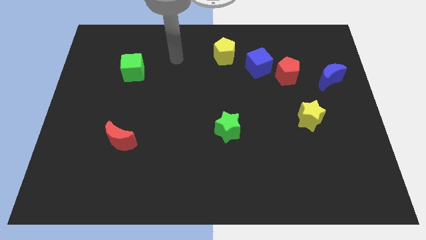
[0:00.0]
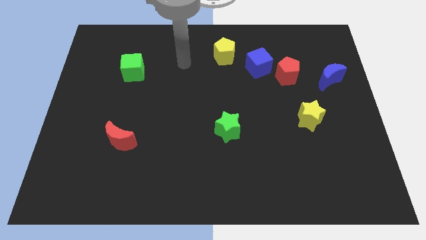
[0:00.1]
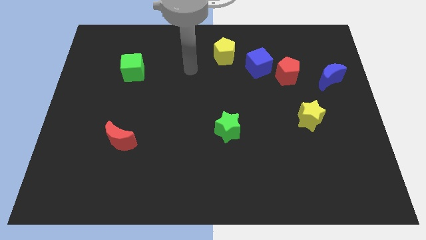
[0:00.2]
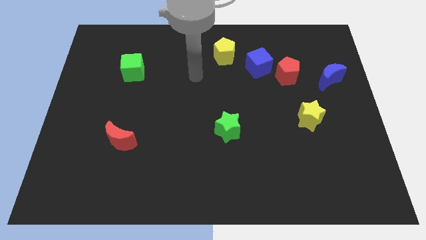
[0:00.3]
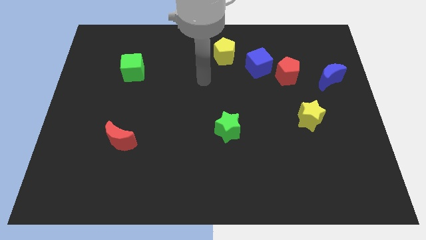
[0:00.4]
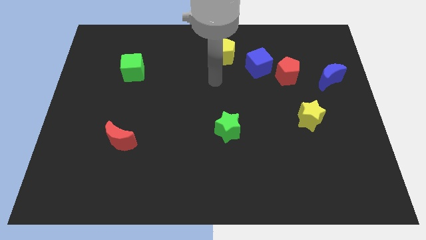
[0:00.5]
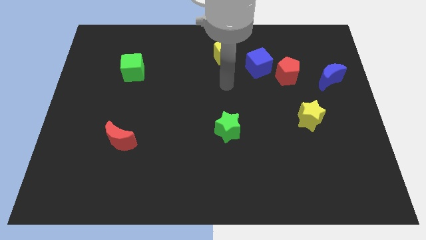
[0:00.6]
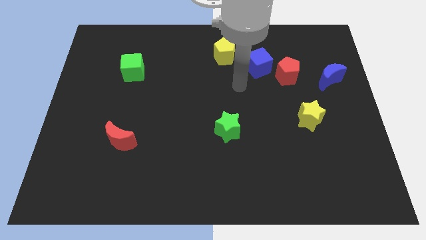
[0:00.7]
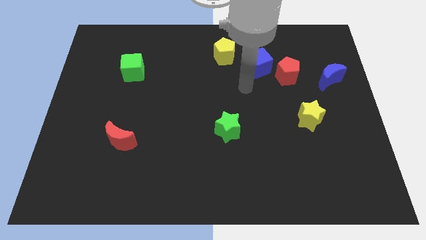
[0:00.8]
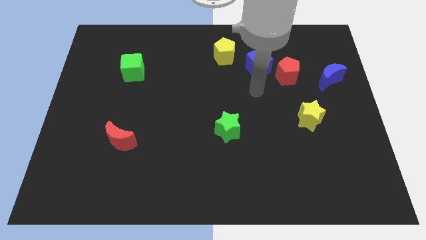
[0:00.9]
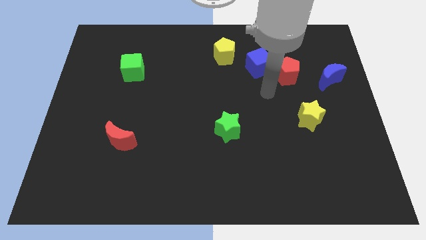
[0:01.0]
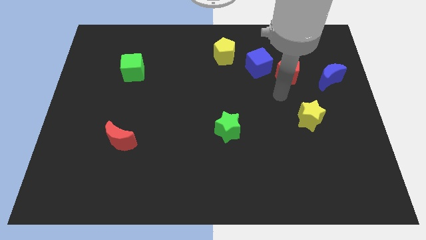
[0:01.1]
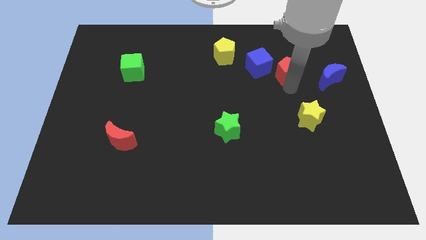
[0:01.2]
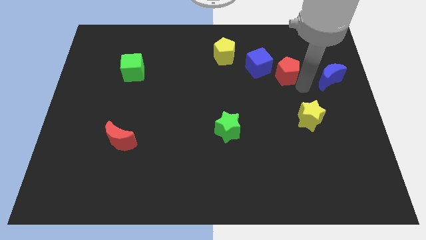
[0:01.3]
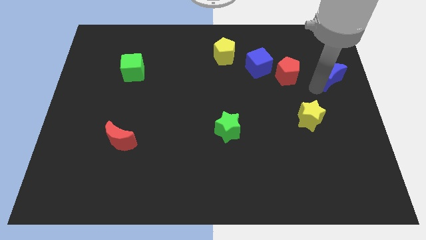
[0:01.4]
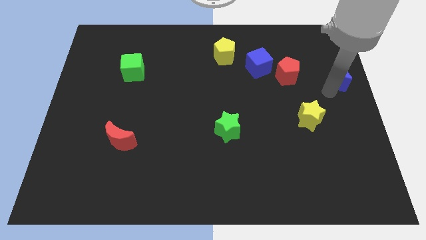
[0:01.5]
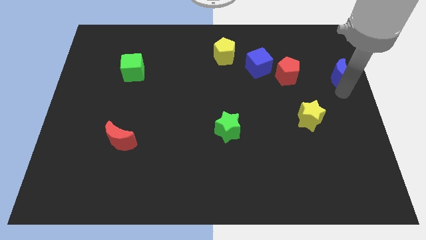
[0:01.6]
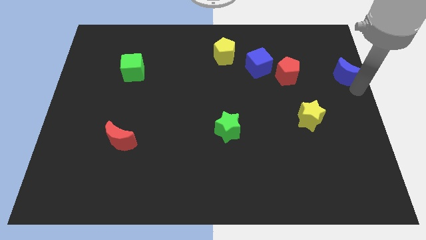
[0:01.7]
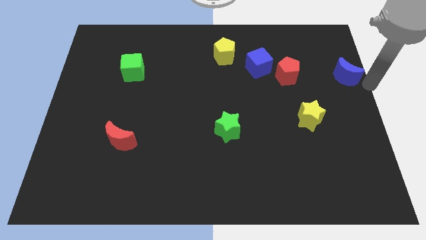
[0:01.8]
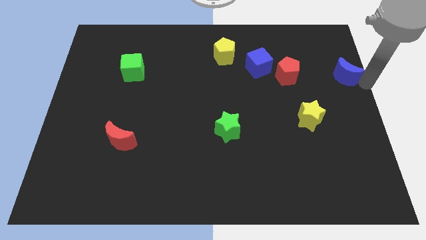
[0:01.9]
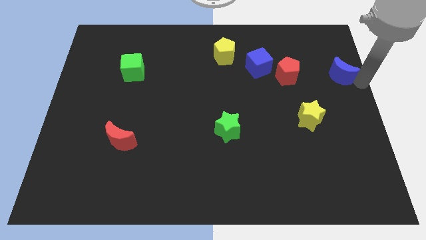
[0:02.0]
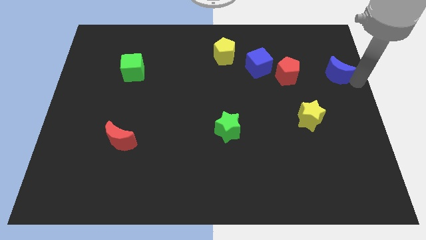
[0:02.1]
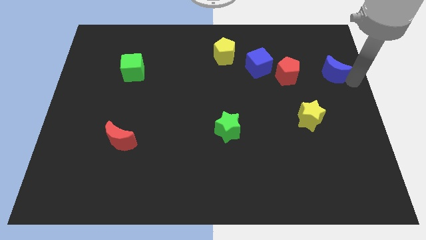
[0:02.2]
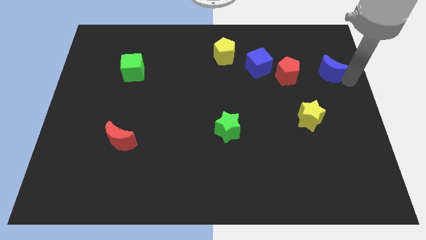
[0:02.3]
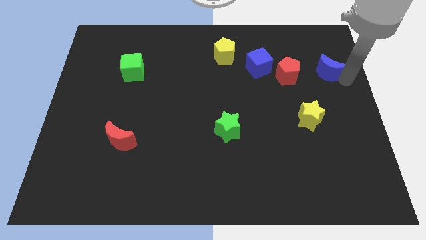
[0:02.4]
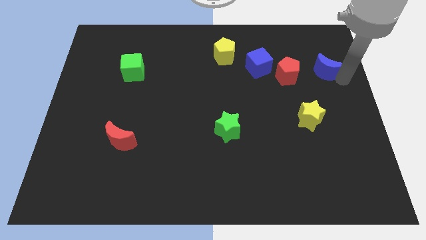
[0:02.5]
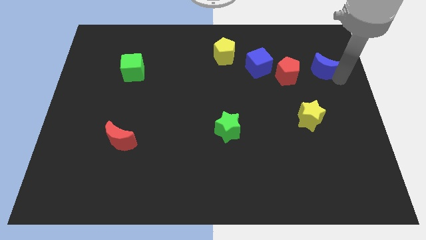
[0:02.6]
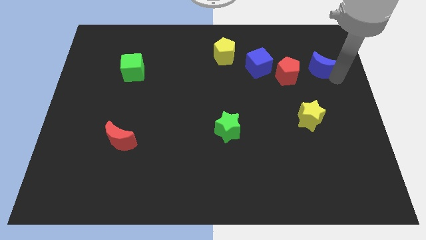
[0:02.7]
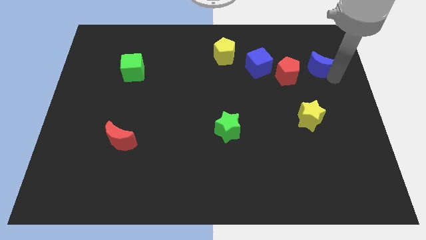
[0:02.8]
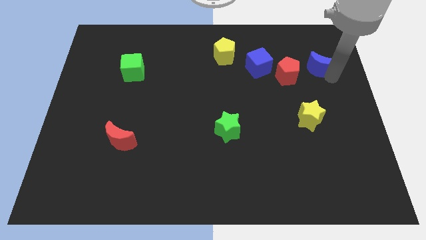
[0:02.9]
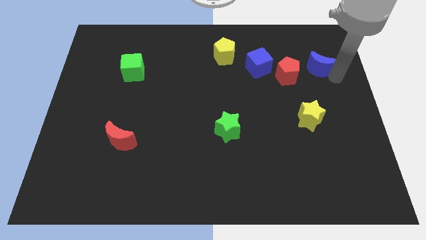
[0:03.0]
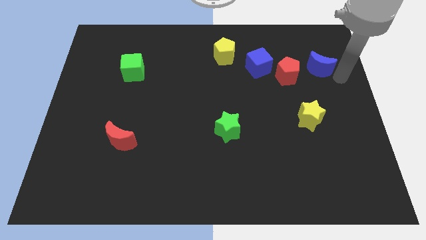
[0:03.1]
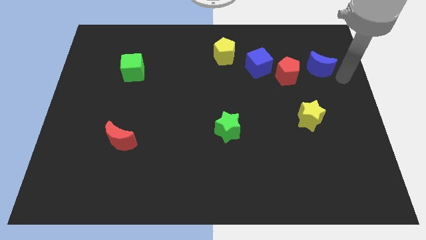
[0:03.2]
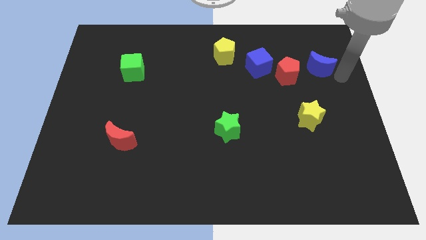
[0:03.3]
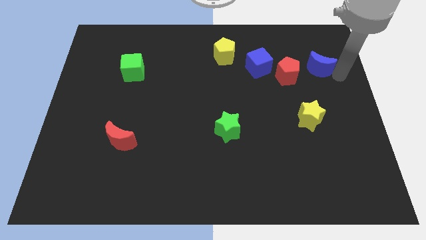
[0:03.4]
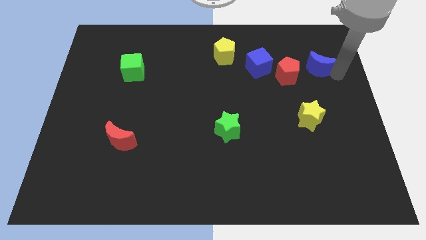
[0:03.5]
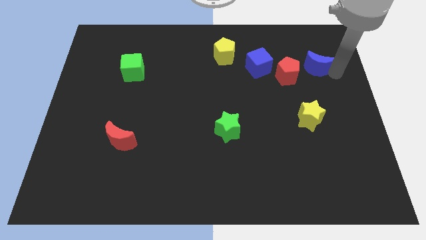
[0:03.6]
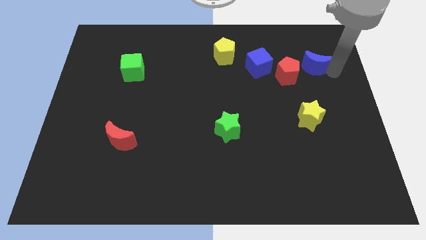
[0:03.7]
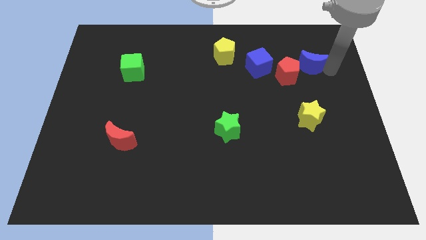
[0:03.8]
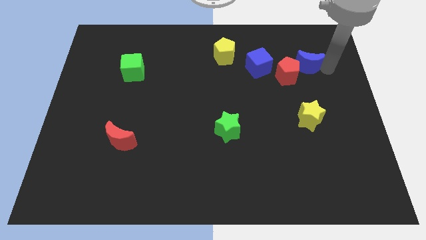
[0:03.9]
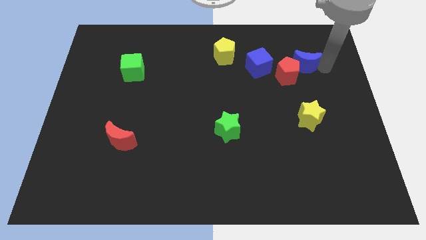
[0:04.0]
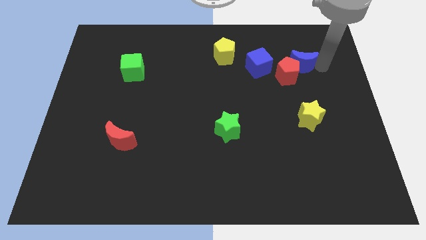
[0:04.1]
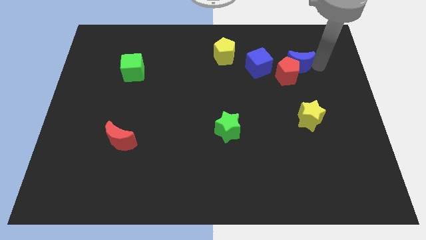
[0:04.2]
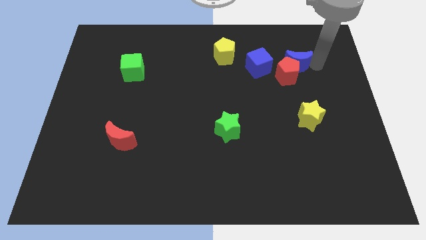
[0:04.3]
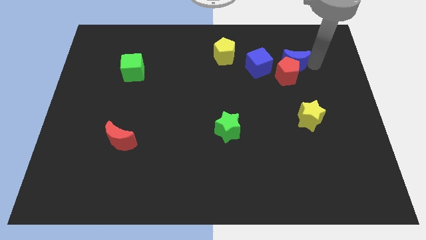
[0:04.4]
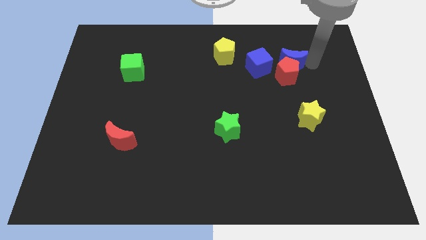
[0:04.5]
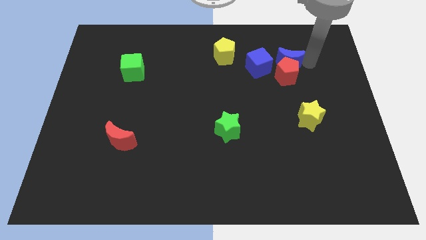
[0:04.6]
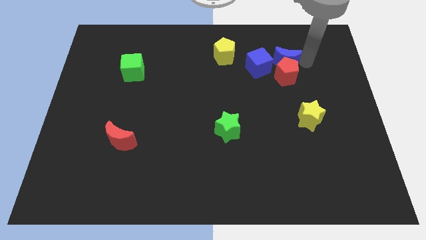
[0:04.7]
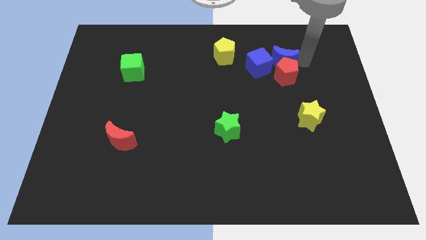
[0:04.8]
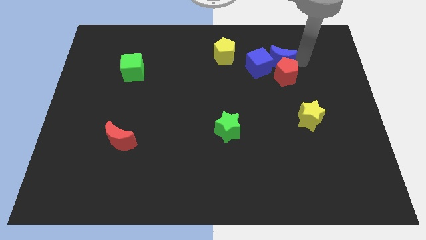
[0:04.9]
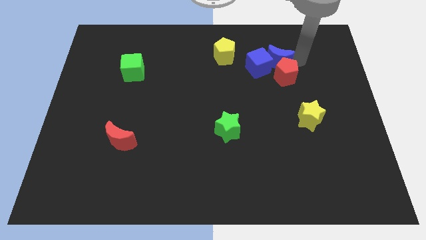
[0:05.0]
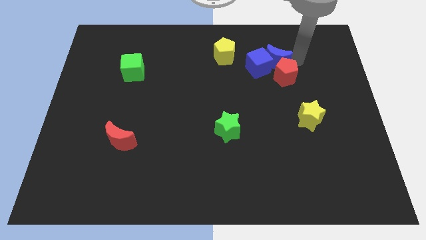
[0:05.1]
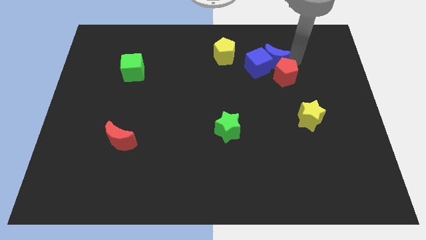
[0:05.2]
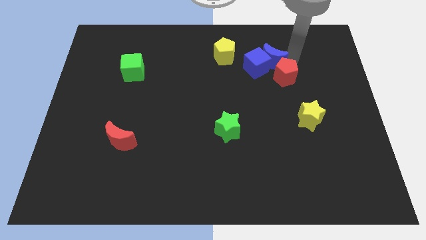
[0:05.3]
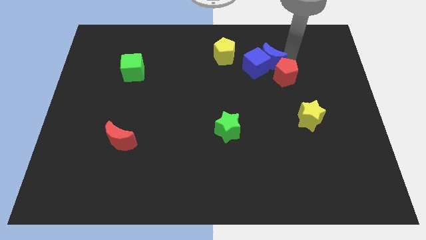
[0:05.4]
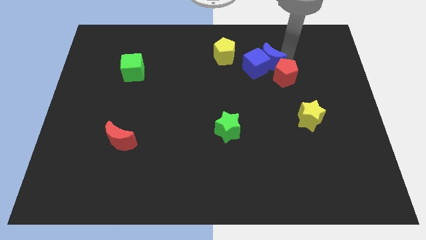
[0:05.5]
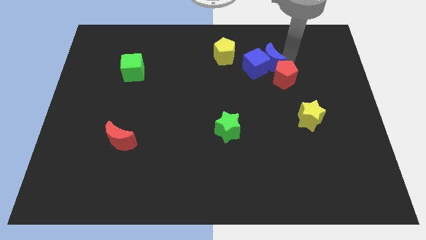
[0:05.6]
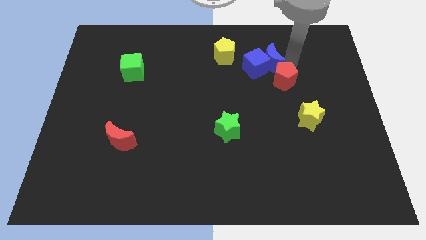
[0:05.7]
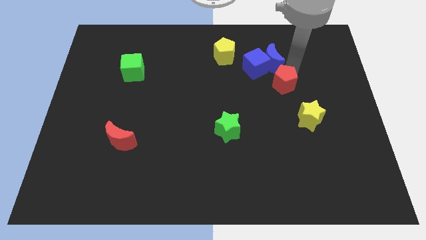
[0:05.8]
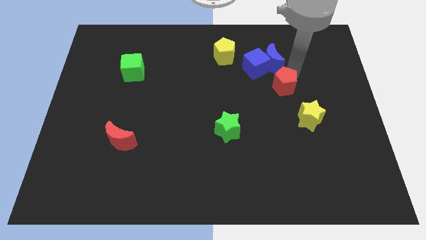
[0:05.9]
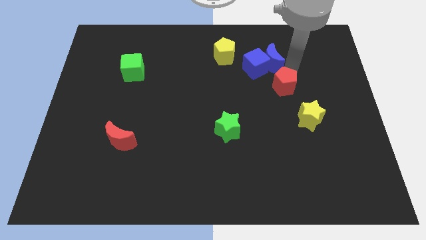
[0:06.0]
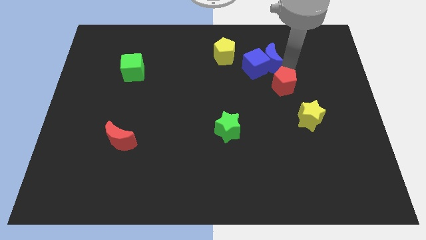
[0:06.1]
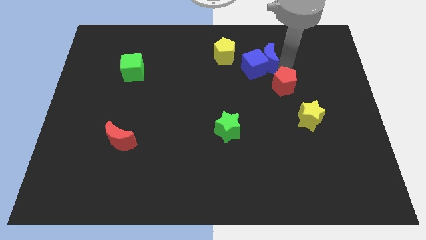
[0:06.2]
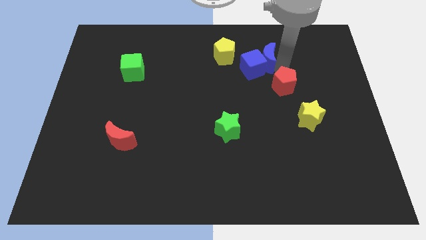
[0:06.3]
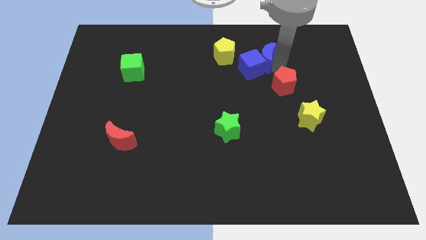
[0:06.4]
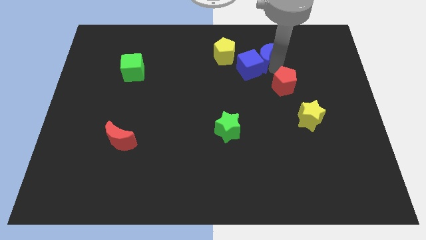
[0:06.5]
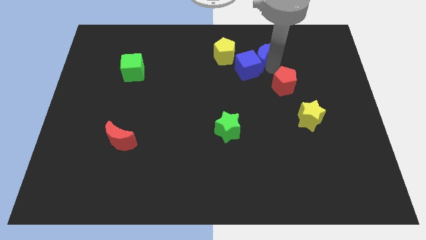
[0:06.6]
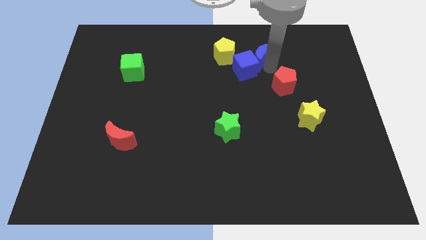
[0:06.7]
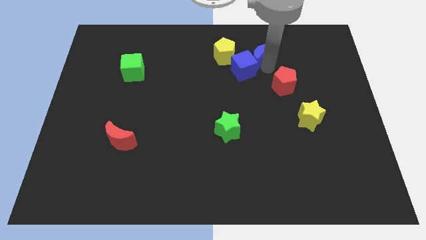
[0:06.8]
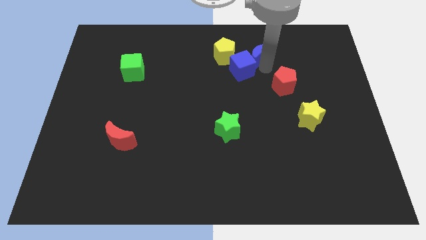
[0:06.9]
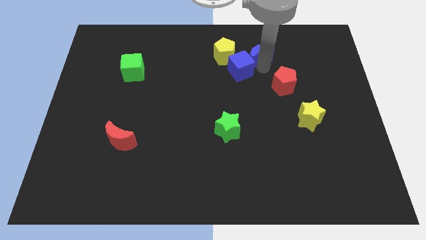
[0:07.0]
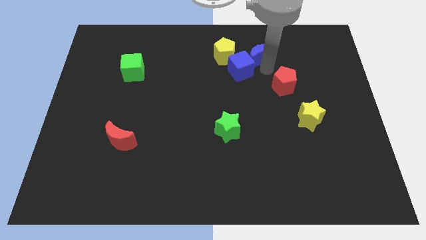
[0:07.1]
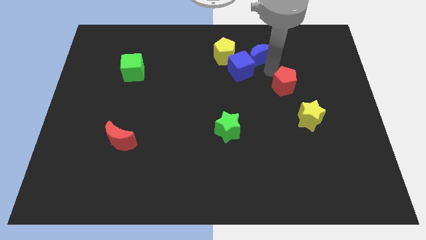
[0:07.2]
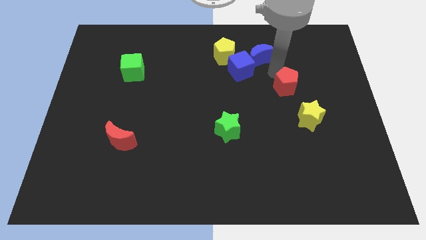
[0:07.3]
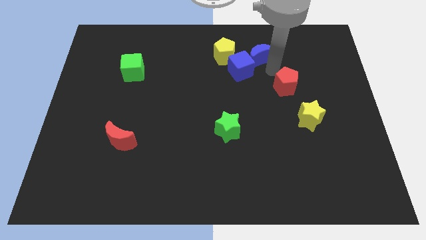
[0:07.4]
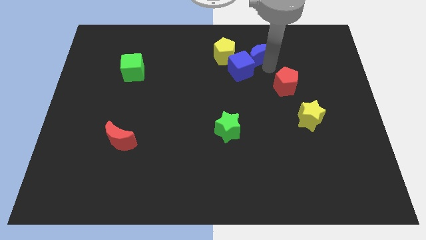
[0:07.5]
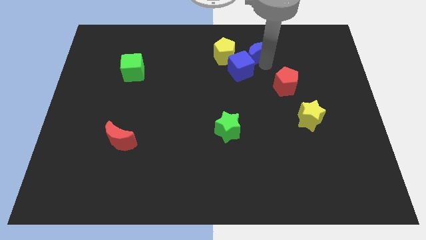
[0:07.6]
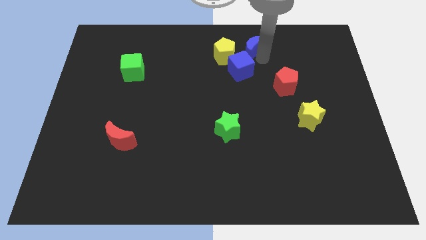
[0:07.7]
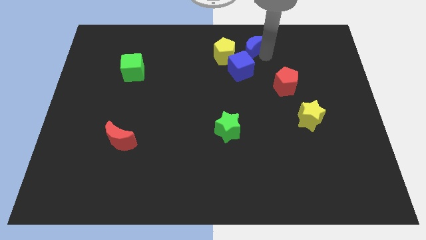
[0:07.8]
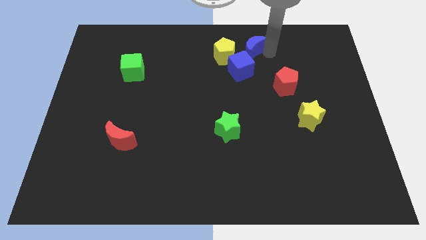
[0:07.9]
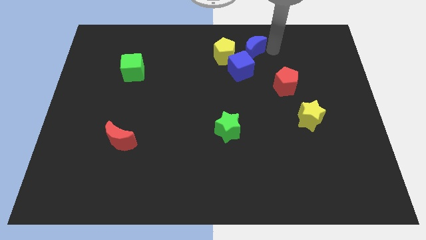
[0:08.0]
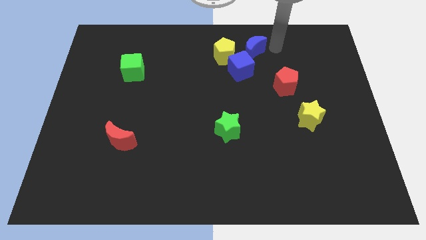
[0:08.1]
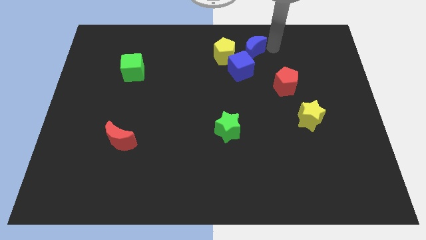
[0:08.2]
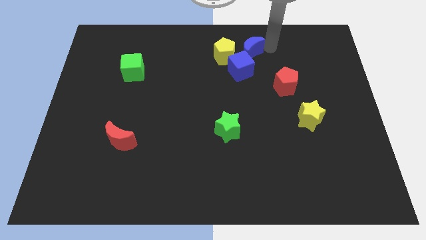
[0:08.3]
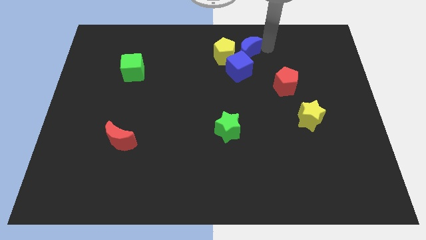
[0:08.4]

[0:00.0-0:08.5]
move the blue moon to the yellow pentagon
